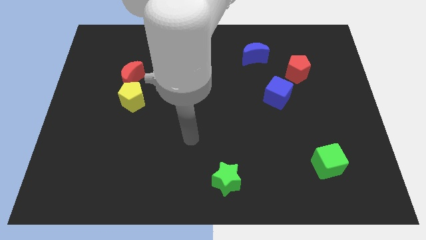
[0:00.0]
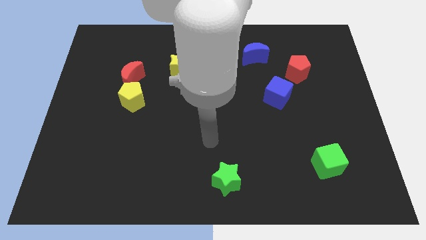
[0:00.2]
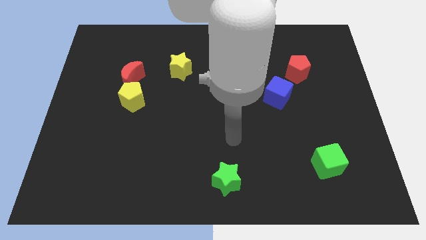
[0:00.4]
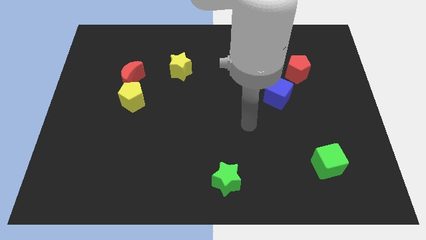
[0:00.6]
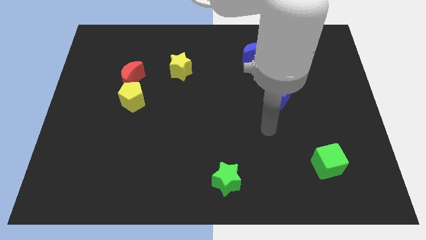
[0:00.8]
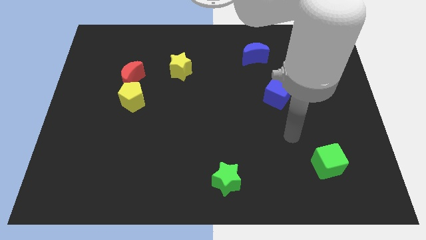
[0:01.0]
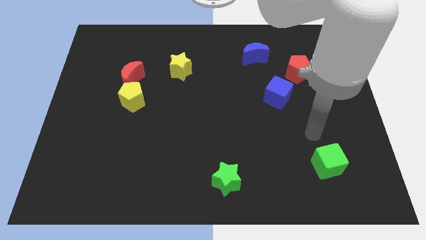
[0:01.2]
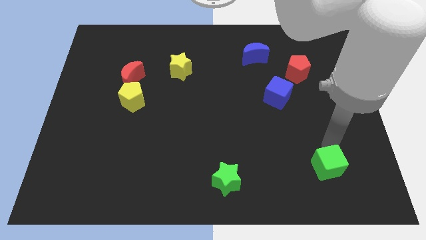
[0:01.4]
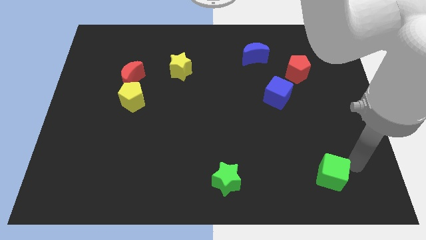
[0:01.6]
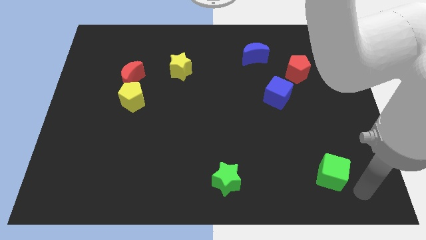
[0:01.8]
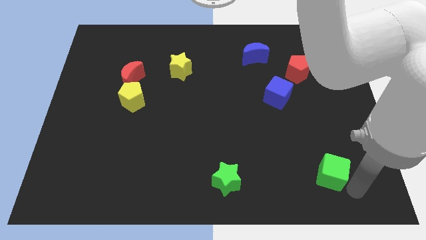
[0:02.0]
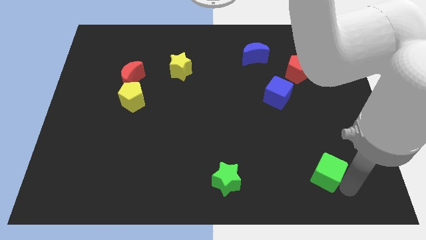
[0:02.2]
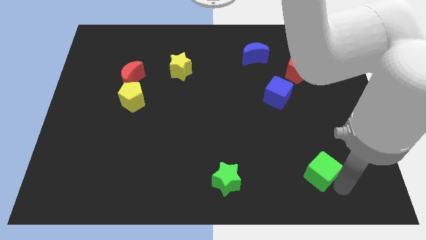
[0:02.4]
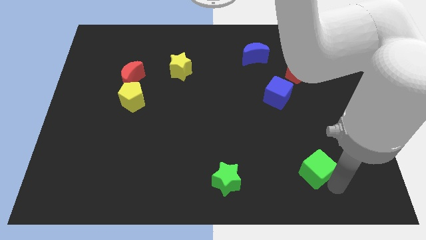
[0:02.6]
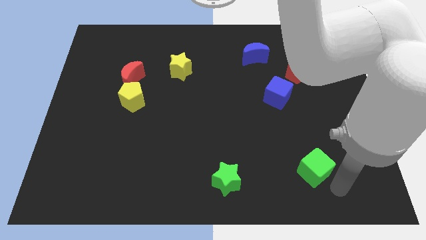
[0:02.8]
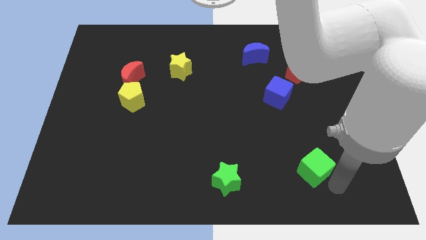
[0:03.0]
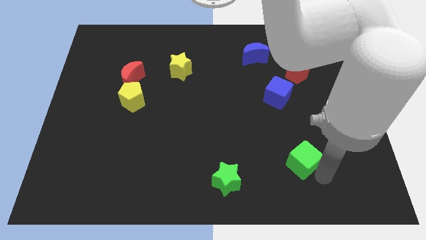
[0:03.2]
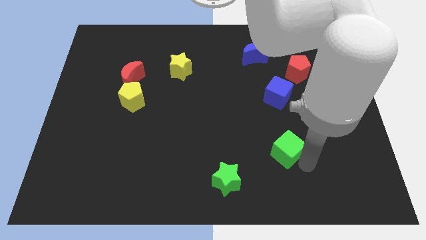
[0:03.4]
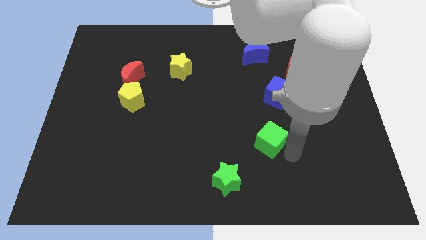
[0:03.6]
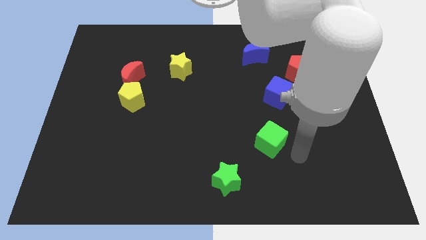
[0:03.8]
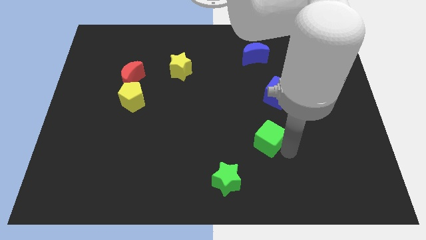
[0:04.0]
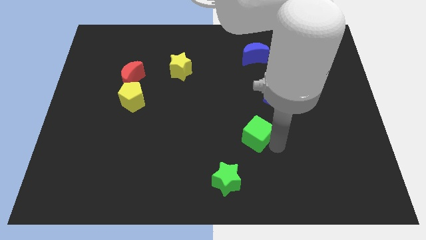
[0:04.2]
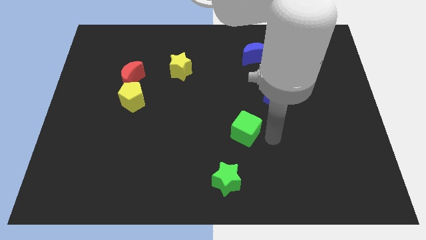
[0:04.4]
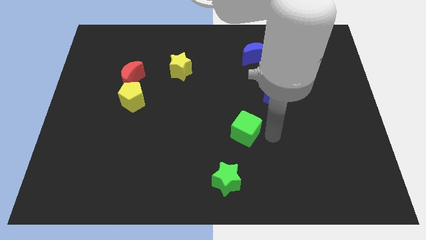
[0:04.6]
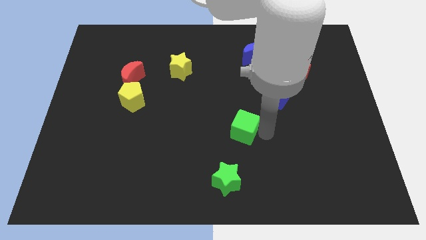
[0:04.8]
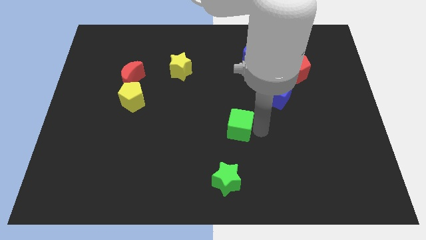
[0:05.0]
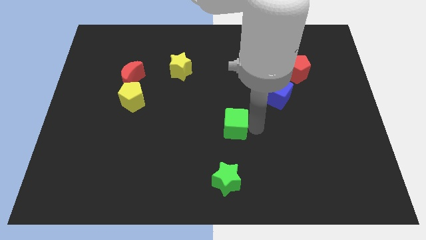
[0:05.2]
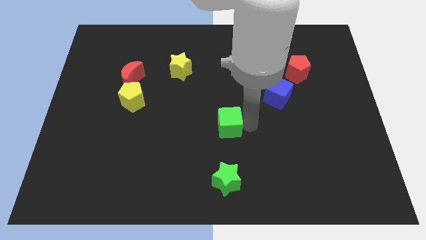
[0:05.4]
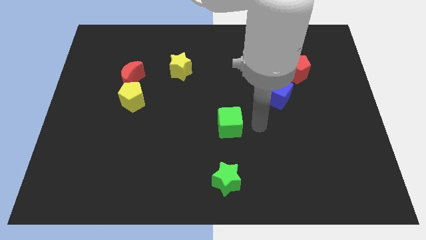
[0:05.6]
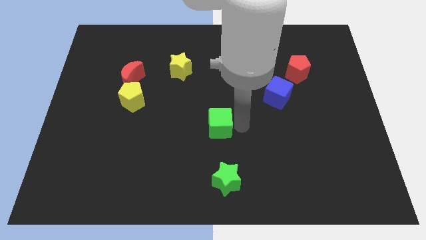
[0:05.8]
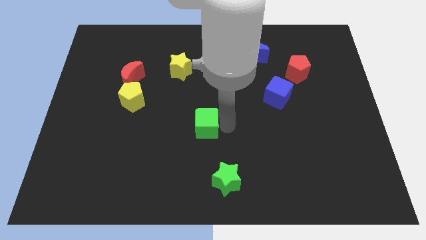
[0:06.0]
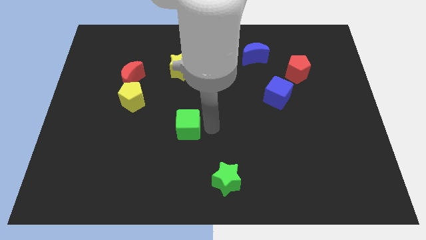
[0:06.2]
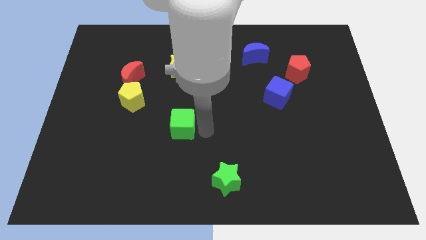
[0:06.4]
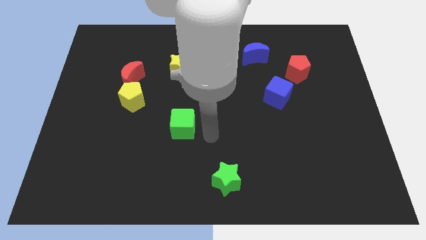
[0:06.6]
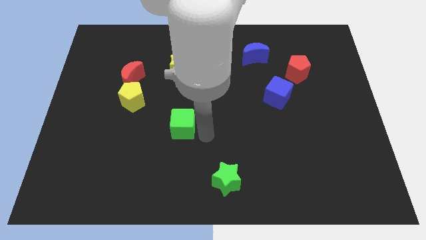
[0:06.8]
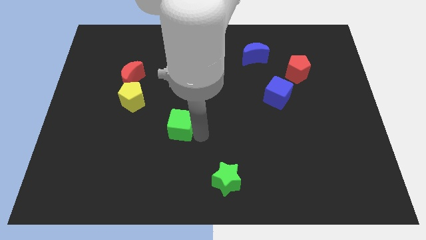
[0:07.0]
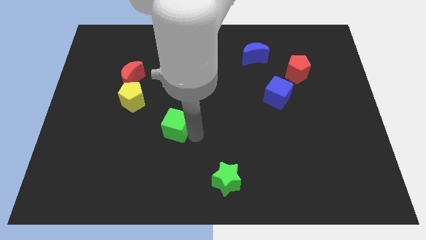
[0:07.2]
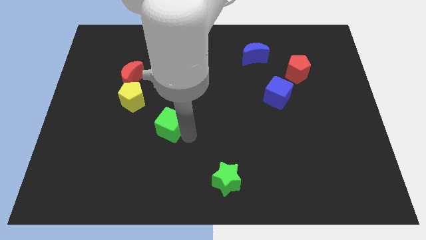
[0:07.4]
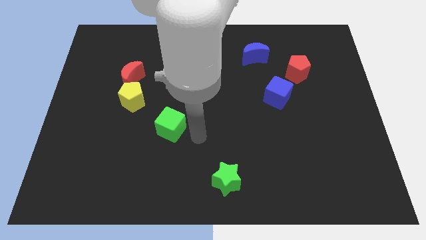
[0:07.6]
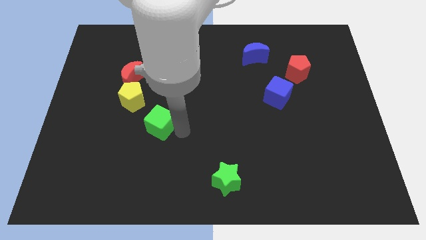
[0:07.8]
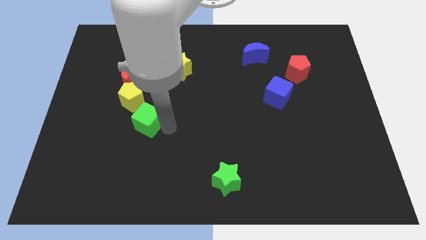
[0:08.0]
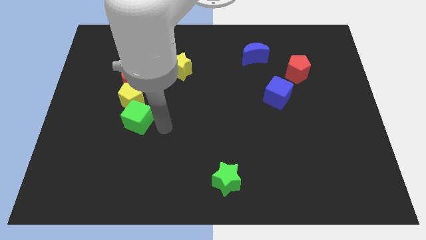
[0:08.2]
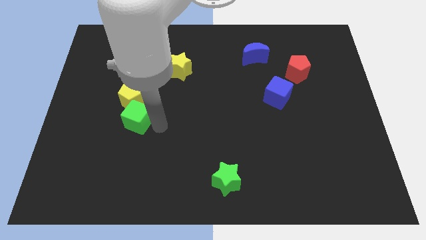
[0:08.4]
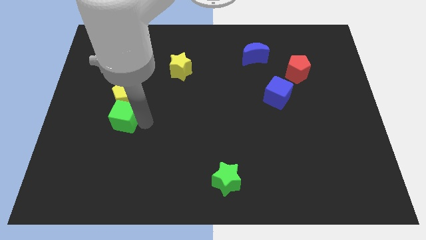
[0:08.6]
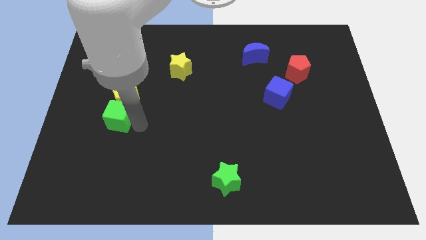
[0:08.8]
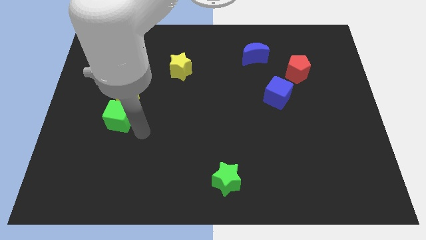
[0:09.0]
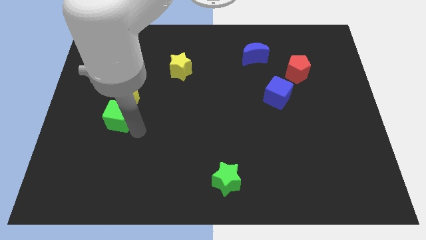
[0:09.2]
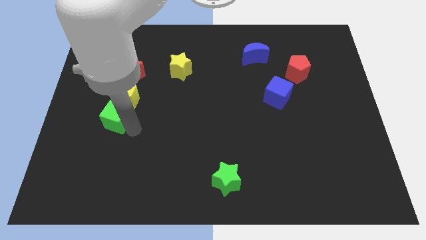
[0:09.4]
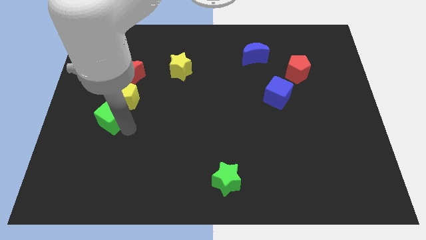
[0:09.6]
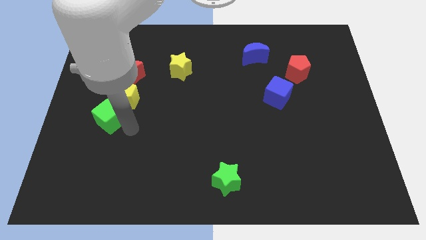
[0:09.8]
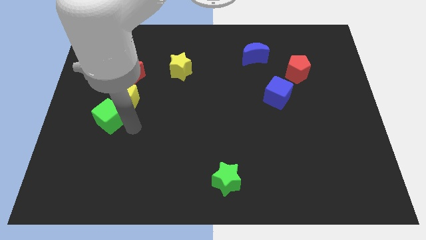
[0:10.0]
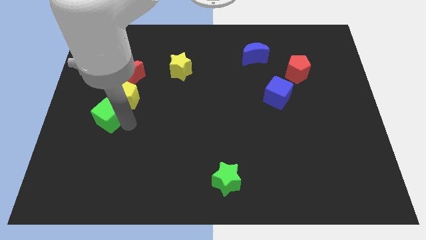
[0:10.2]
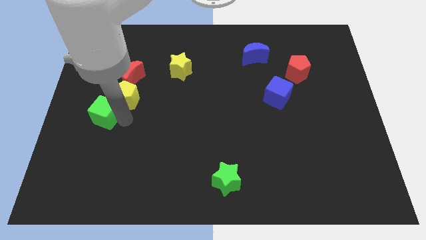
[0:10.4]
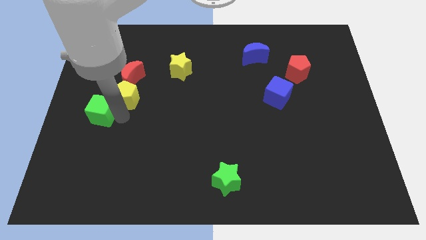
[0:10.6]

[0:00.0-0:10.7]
put the green cube to the left side of the board
